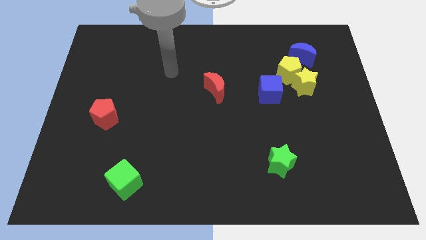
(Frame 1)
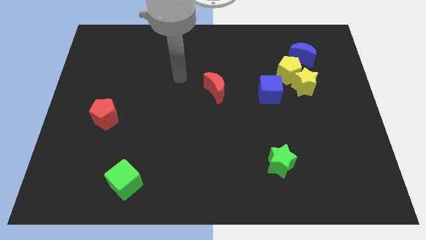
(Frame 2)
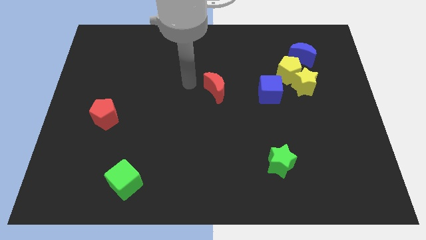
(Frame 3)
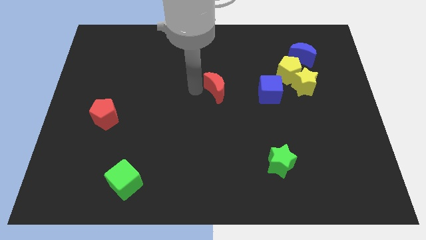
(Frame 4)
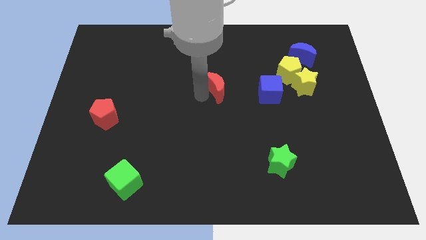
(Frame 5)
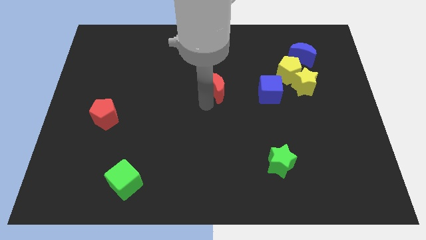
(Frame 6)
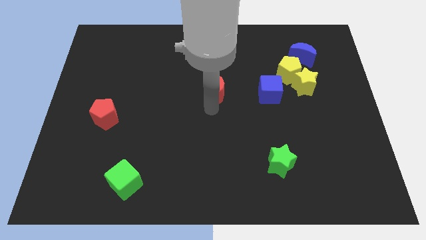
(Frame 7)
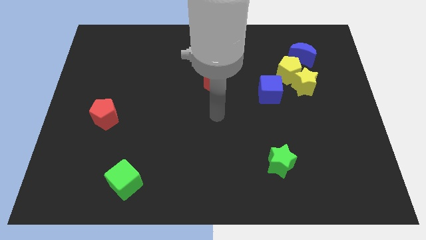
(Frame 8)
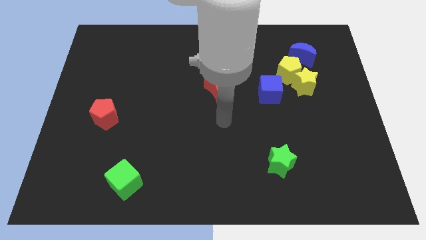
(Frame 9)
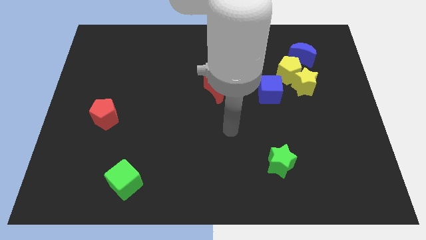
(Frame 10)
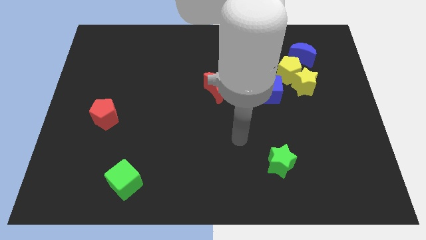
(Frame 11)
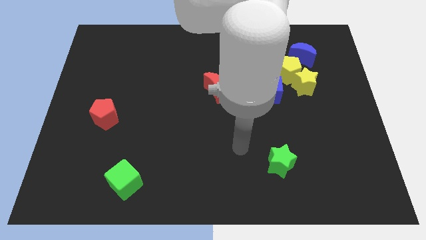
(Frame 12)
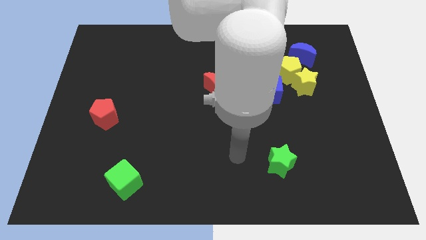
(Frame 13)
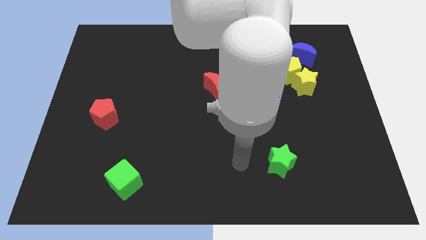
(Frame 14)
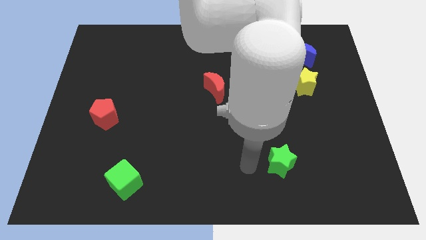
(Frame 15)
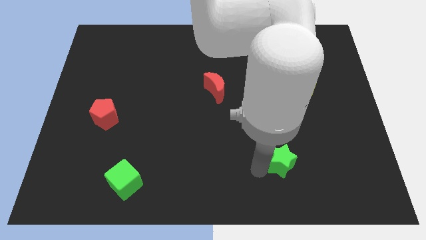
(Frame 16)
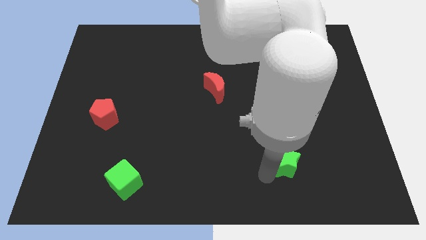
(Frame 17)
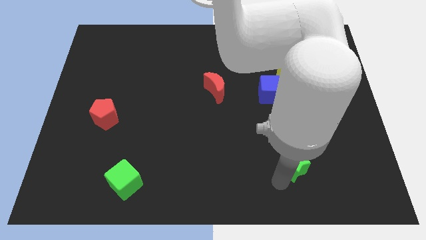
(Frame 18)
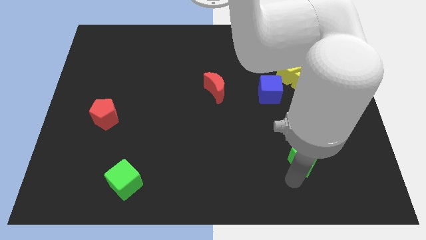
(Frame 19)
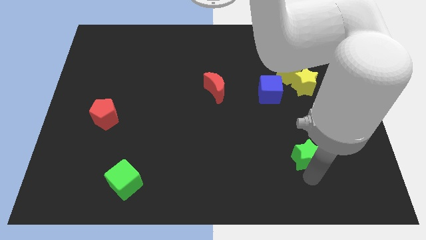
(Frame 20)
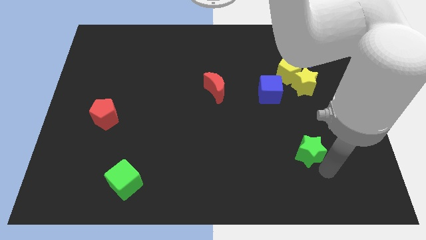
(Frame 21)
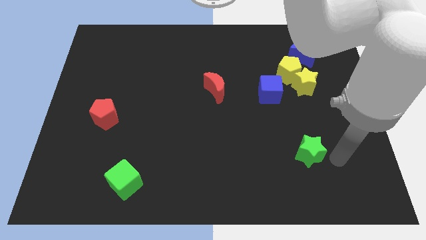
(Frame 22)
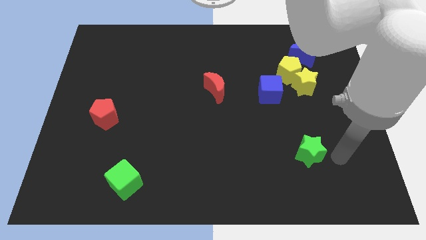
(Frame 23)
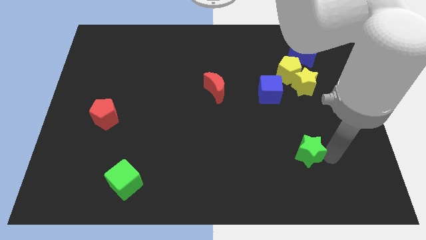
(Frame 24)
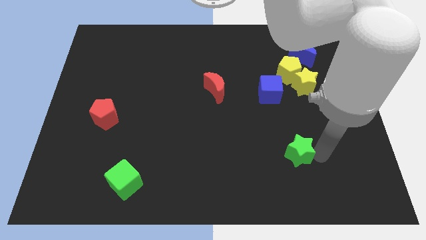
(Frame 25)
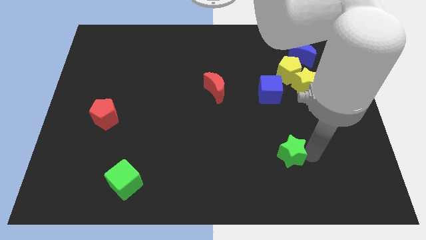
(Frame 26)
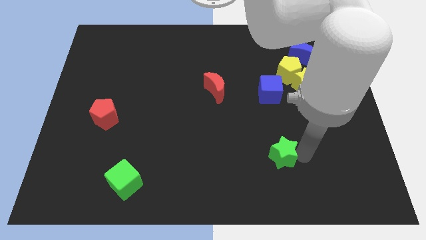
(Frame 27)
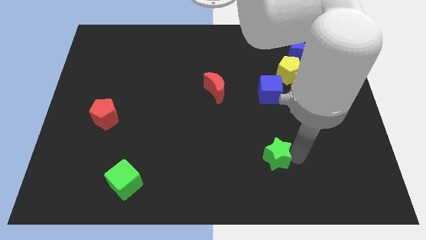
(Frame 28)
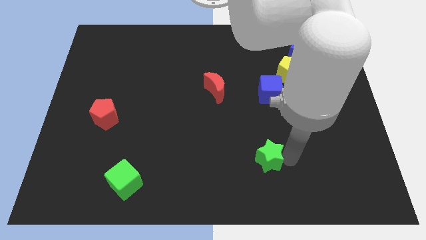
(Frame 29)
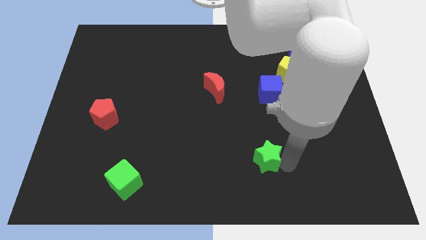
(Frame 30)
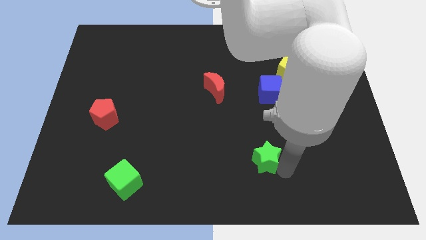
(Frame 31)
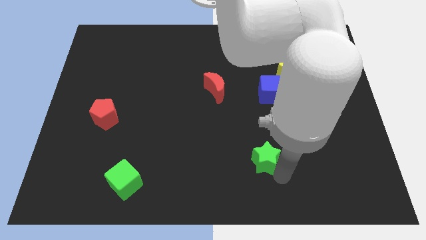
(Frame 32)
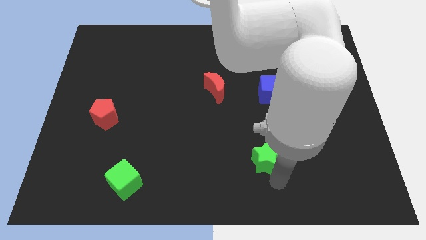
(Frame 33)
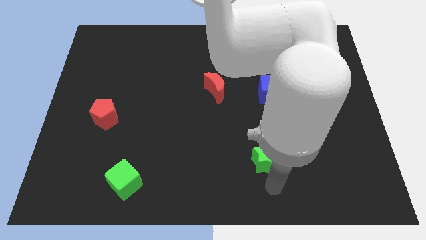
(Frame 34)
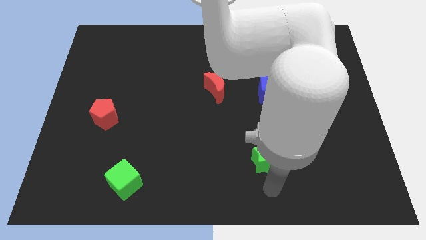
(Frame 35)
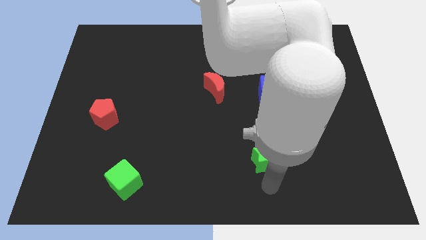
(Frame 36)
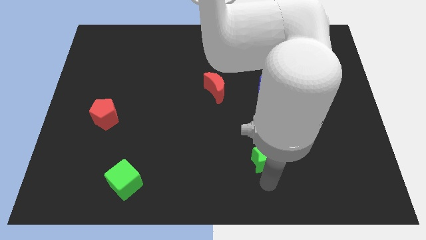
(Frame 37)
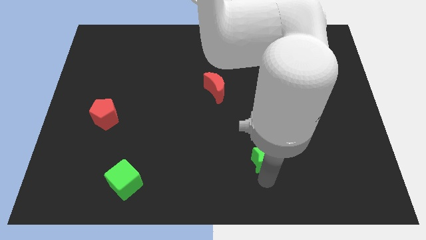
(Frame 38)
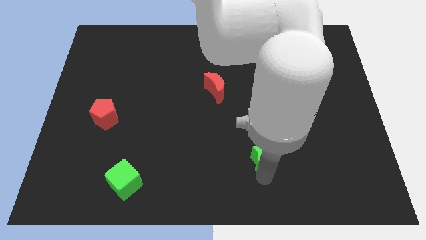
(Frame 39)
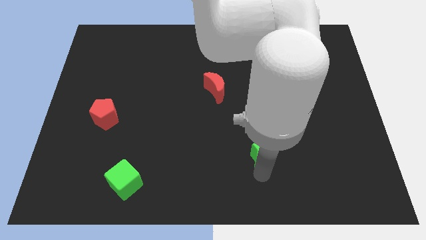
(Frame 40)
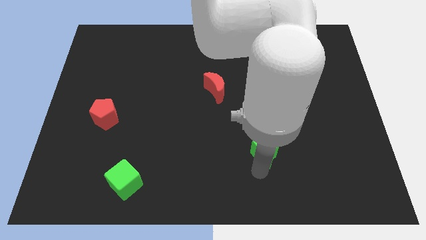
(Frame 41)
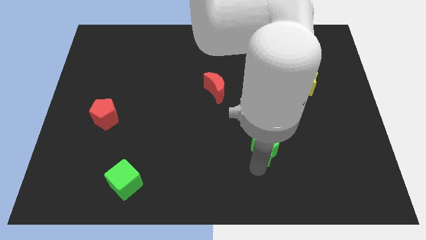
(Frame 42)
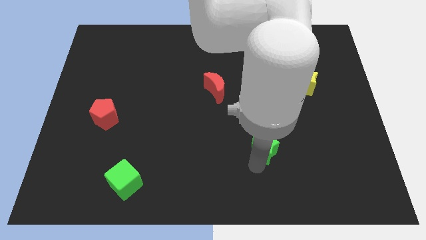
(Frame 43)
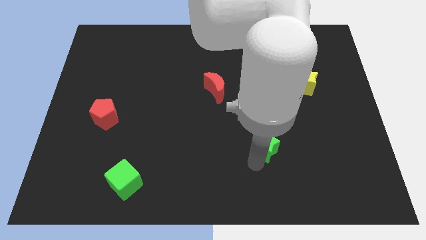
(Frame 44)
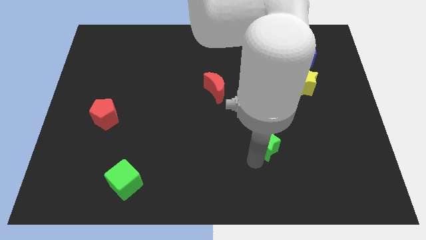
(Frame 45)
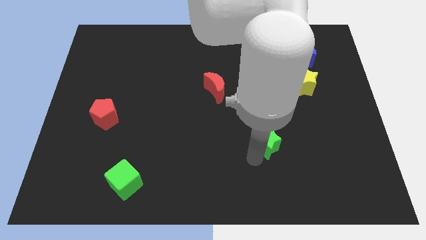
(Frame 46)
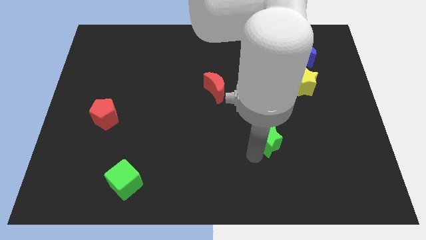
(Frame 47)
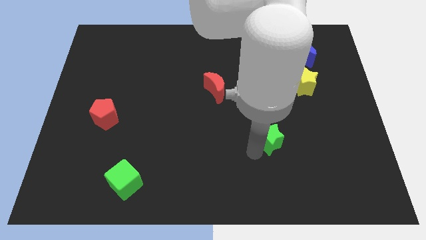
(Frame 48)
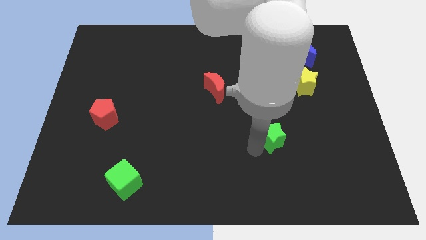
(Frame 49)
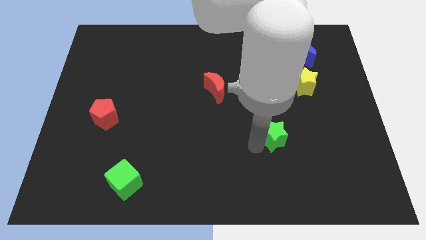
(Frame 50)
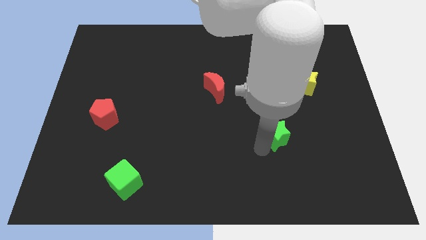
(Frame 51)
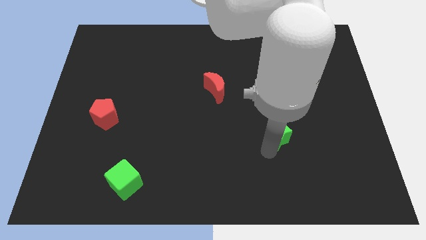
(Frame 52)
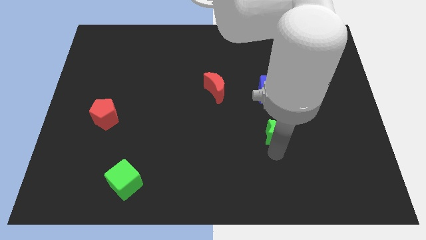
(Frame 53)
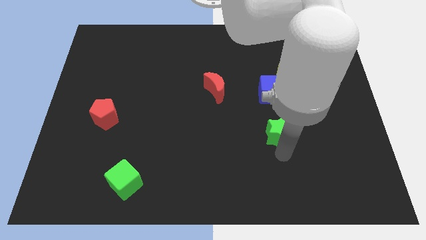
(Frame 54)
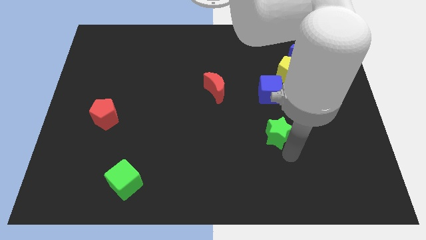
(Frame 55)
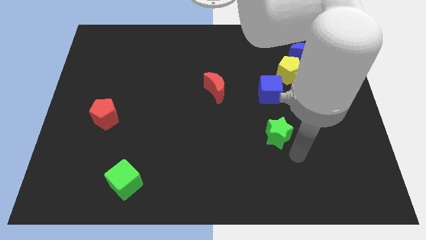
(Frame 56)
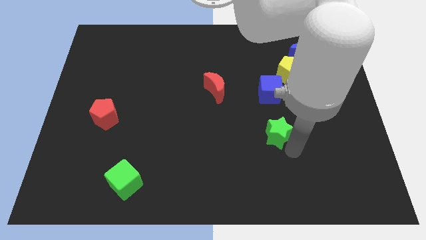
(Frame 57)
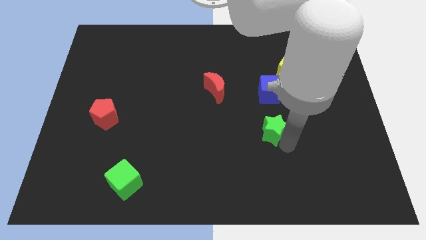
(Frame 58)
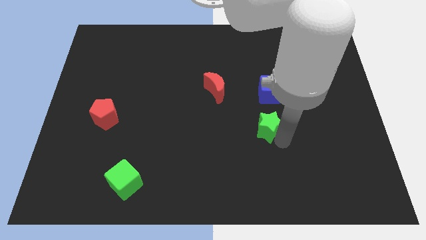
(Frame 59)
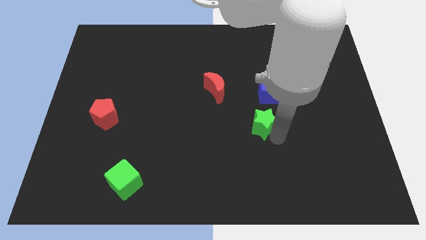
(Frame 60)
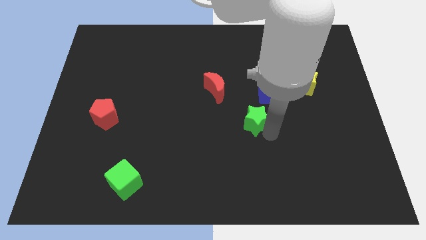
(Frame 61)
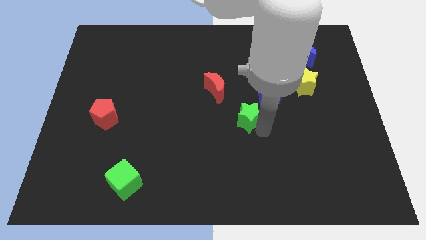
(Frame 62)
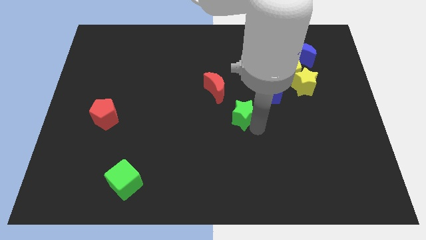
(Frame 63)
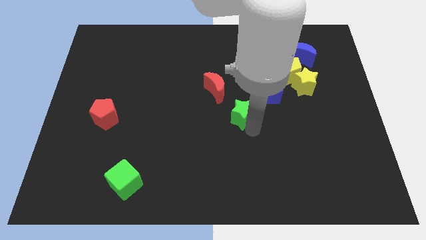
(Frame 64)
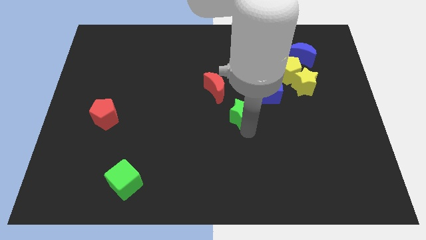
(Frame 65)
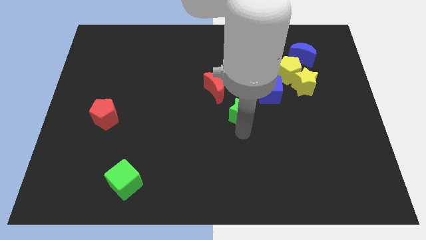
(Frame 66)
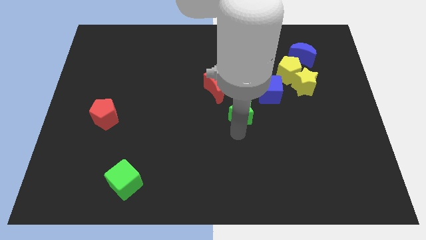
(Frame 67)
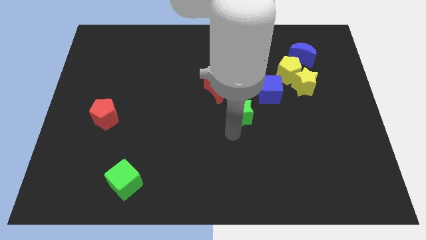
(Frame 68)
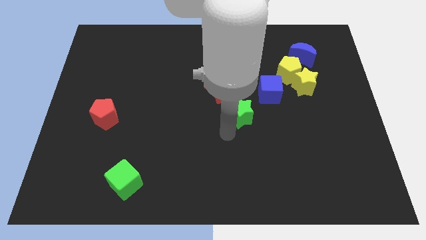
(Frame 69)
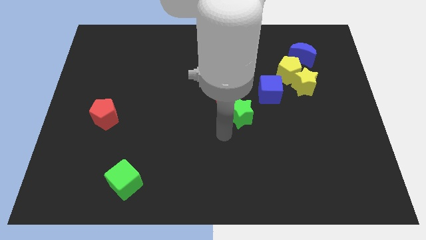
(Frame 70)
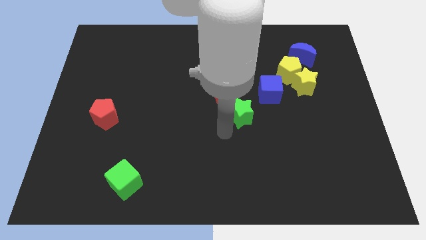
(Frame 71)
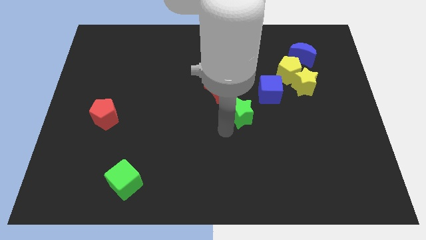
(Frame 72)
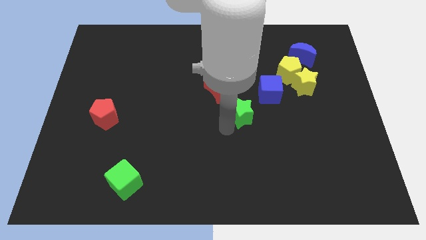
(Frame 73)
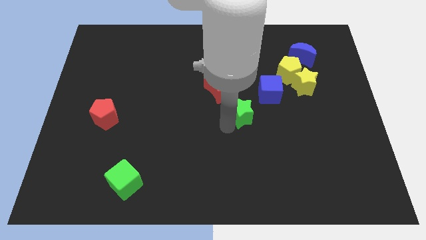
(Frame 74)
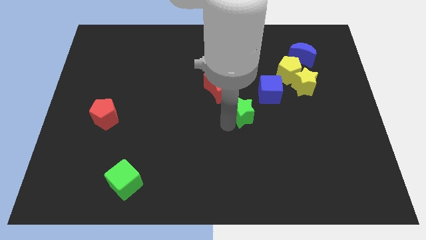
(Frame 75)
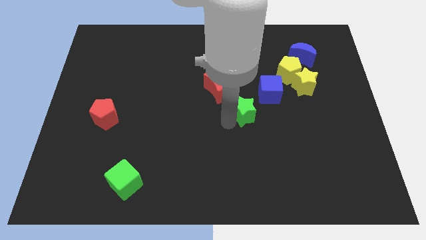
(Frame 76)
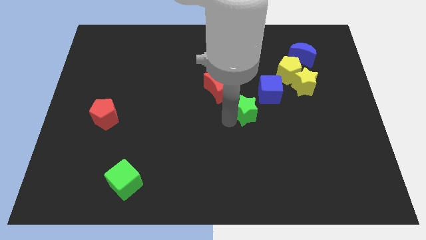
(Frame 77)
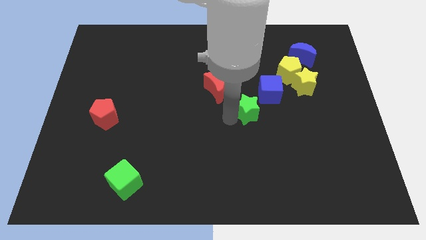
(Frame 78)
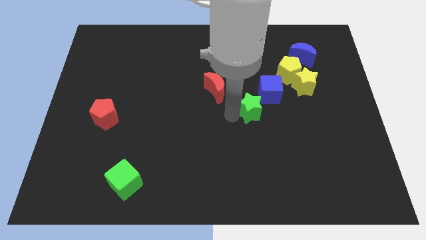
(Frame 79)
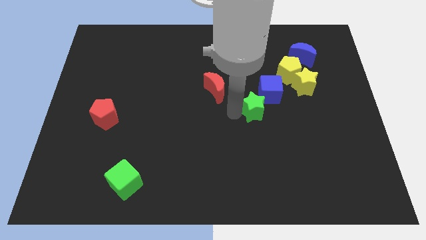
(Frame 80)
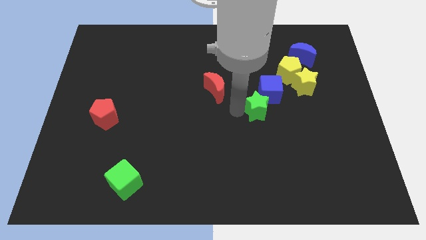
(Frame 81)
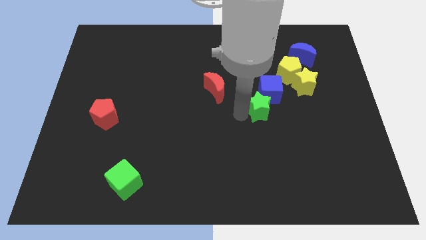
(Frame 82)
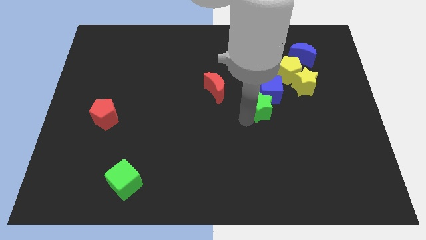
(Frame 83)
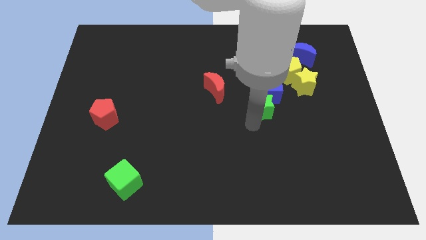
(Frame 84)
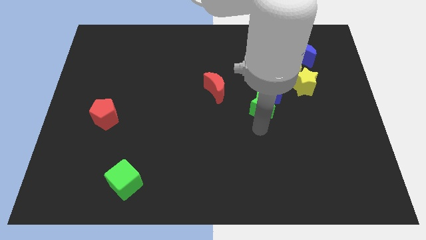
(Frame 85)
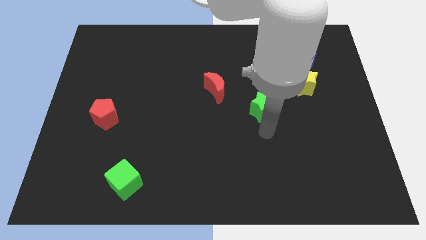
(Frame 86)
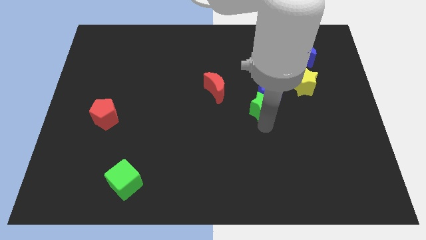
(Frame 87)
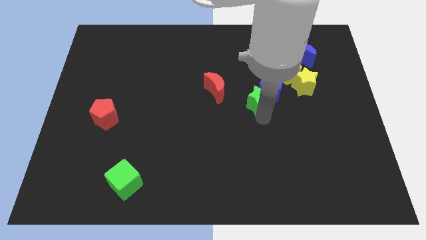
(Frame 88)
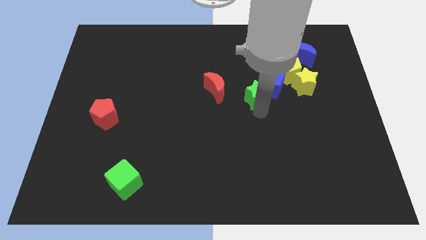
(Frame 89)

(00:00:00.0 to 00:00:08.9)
put the green star just left of the yellow star
